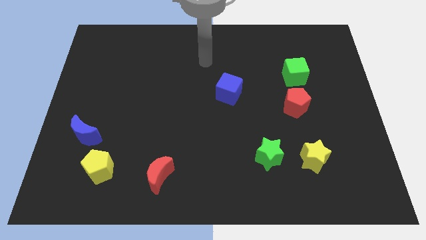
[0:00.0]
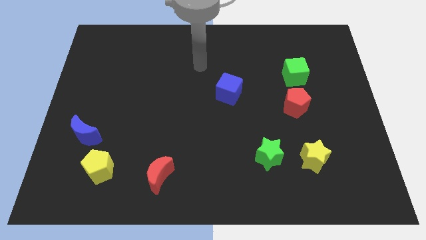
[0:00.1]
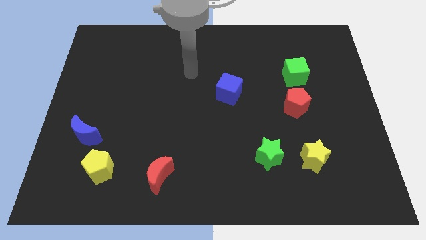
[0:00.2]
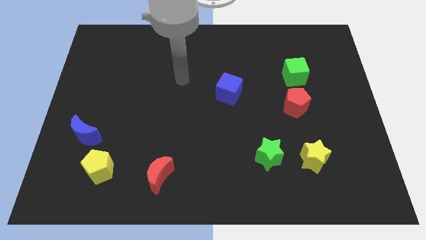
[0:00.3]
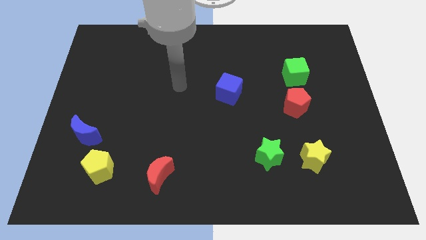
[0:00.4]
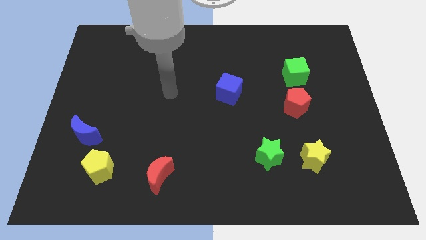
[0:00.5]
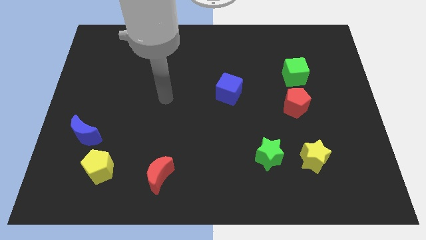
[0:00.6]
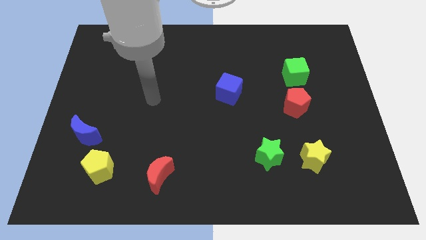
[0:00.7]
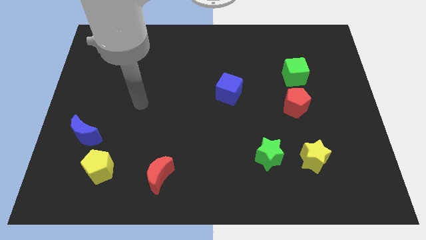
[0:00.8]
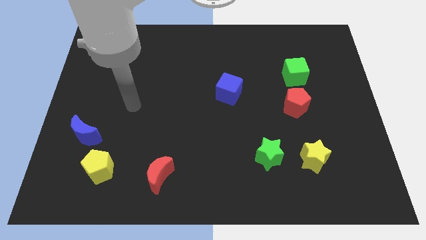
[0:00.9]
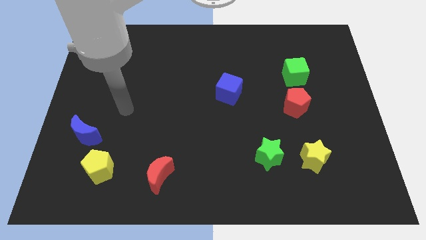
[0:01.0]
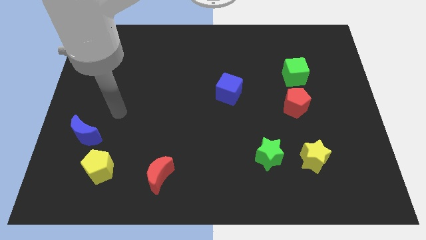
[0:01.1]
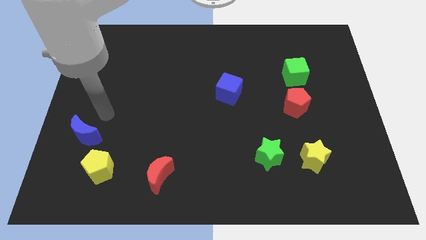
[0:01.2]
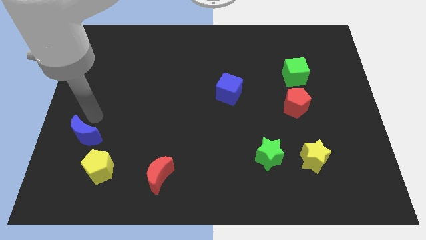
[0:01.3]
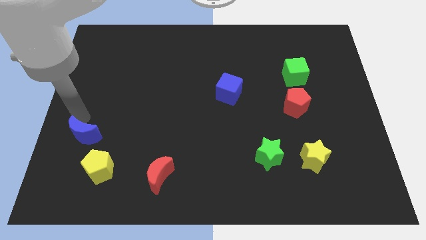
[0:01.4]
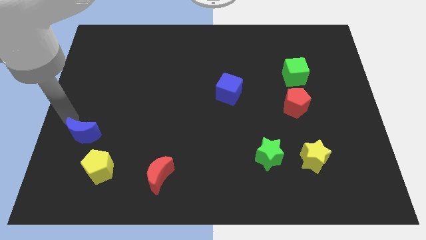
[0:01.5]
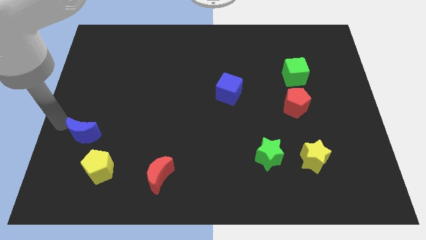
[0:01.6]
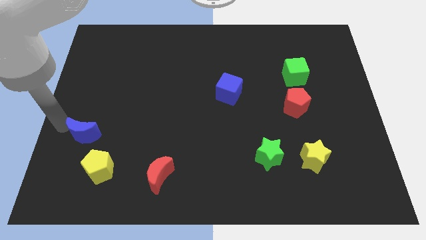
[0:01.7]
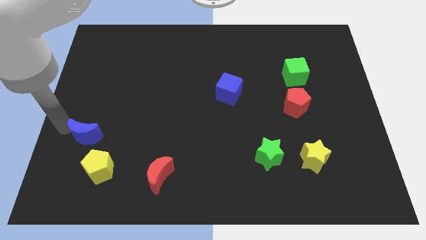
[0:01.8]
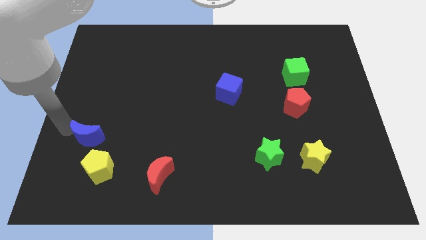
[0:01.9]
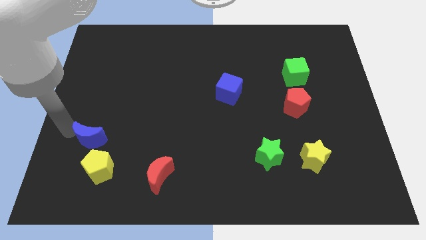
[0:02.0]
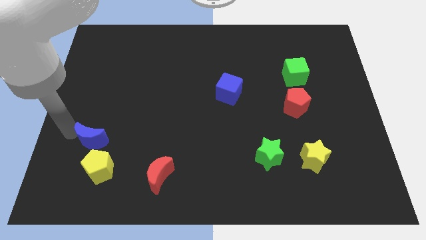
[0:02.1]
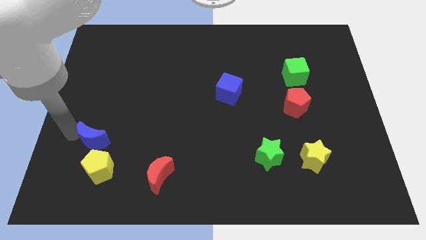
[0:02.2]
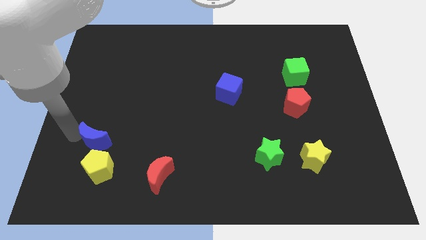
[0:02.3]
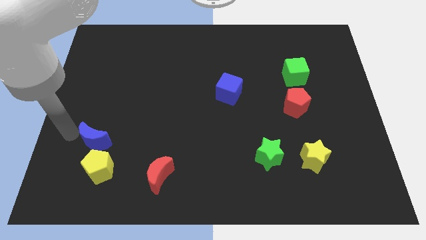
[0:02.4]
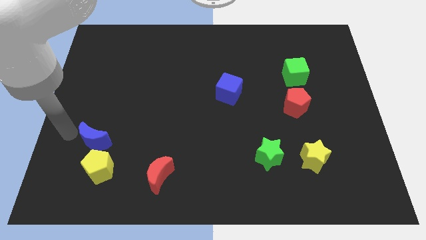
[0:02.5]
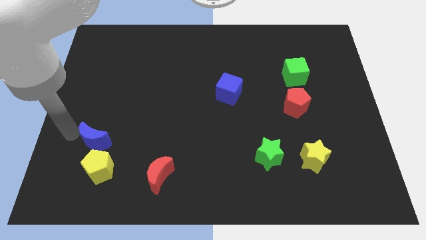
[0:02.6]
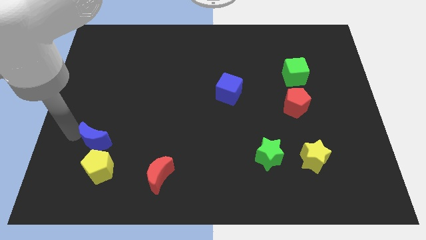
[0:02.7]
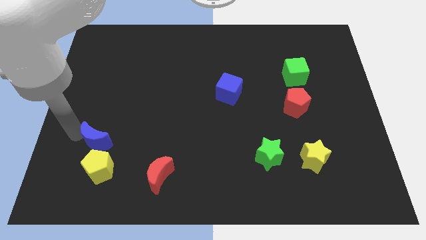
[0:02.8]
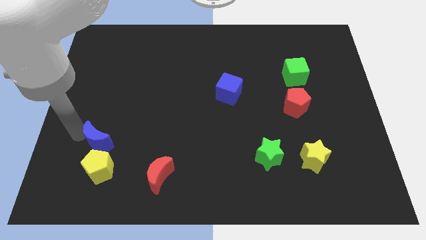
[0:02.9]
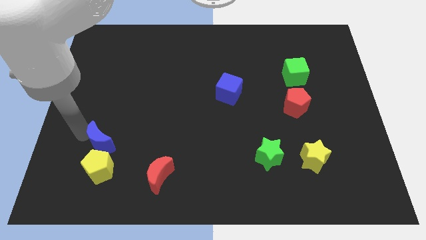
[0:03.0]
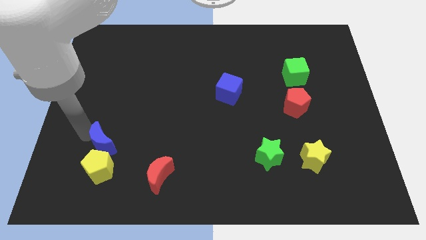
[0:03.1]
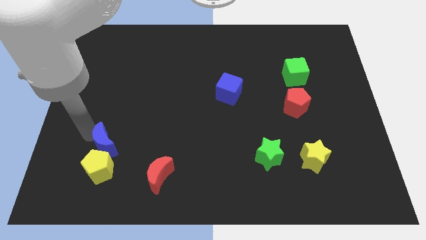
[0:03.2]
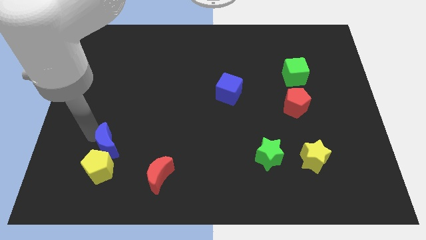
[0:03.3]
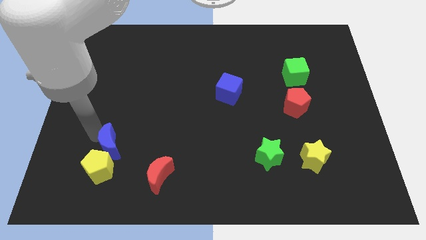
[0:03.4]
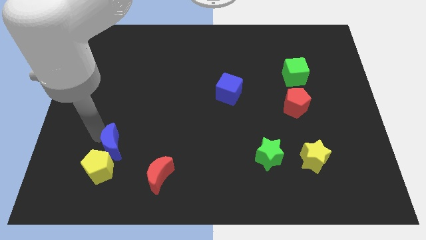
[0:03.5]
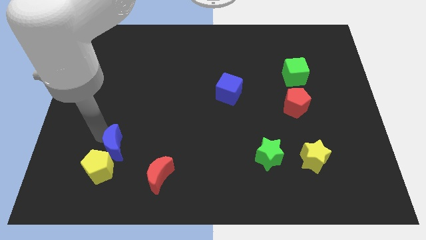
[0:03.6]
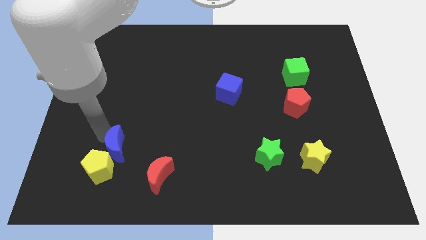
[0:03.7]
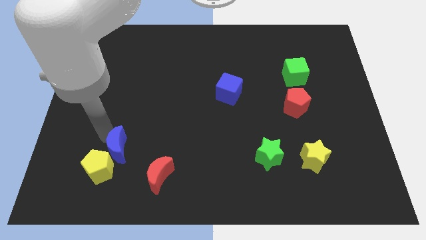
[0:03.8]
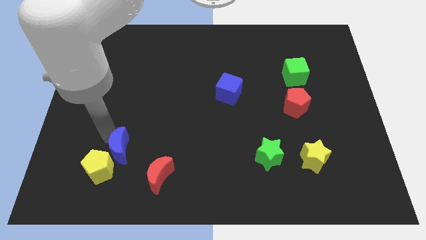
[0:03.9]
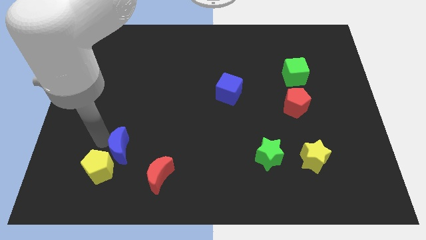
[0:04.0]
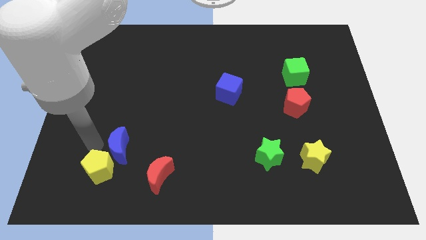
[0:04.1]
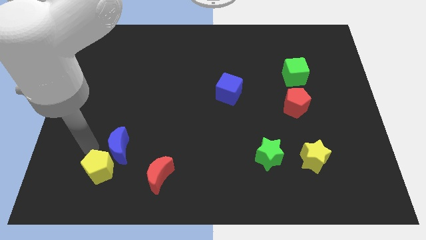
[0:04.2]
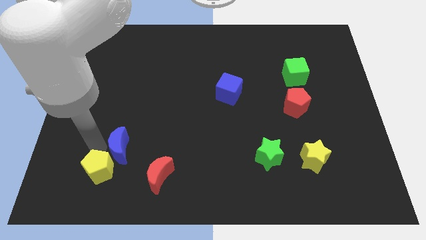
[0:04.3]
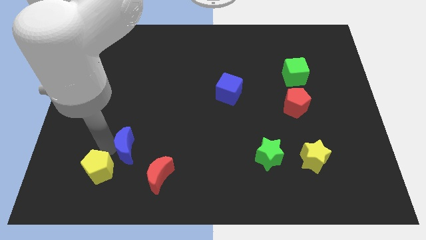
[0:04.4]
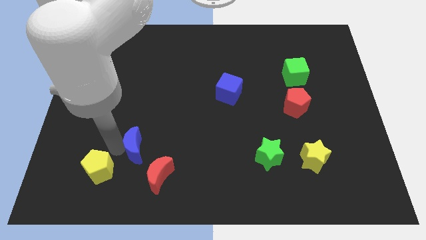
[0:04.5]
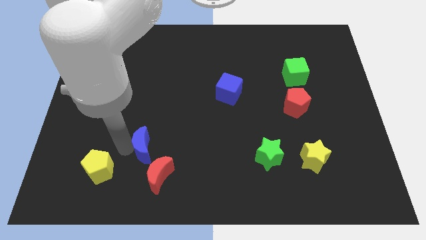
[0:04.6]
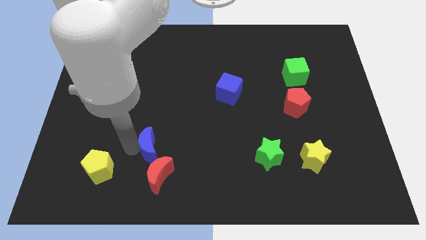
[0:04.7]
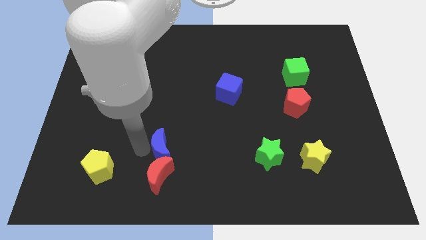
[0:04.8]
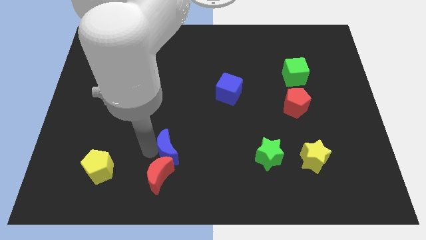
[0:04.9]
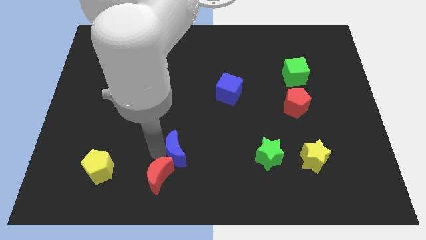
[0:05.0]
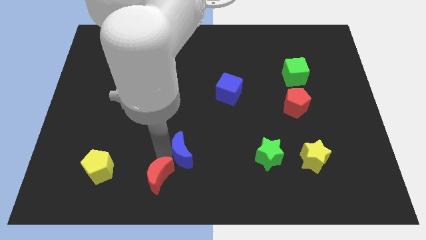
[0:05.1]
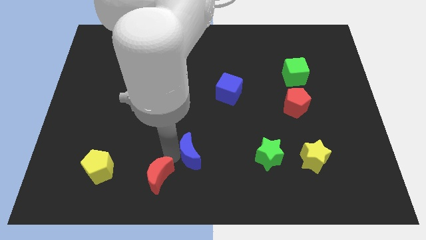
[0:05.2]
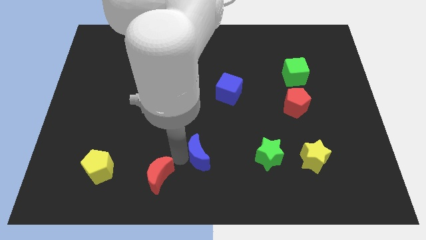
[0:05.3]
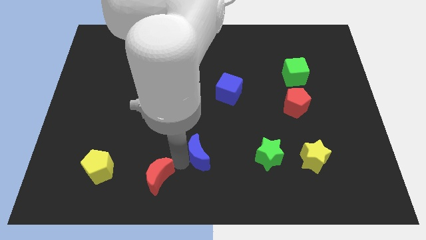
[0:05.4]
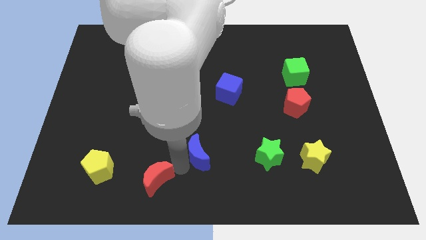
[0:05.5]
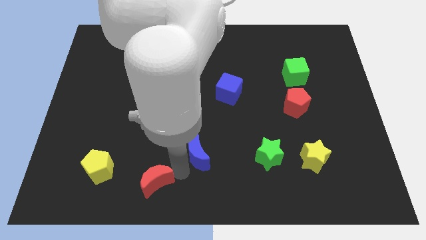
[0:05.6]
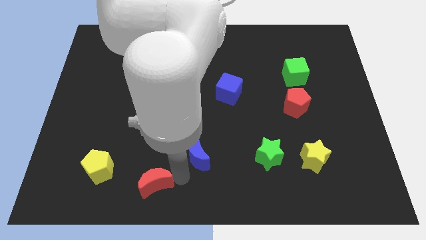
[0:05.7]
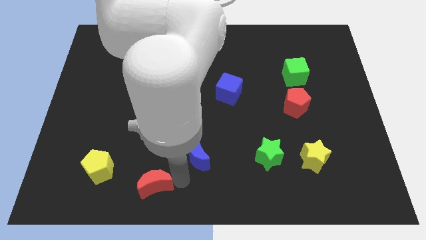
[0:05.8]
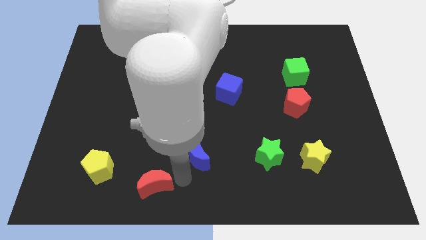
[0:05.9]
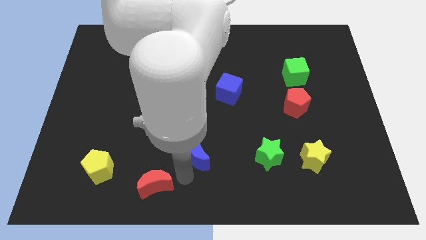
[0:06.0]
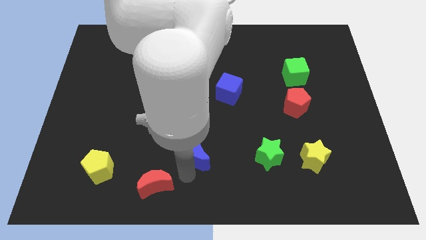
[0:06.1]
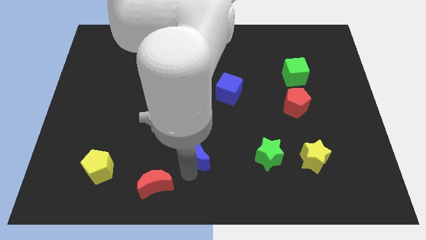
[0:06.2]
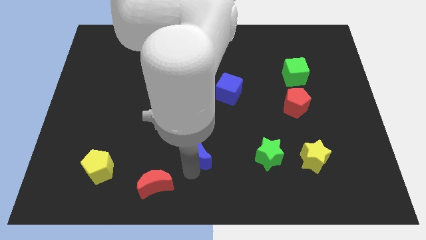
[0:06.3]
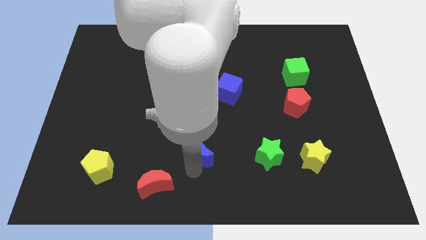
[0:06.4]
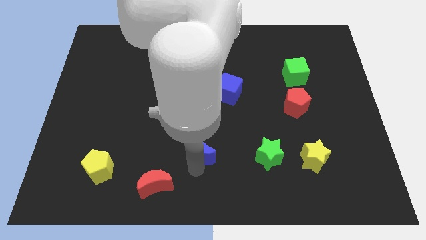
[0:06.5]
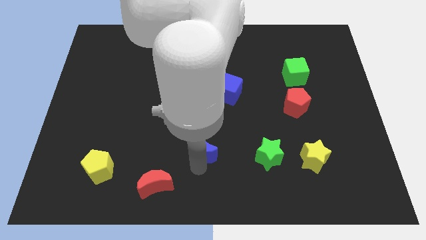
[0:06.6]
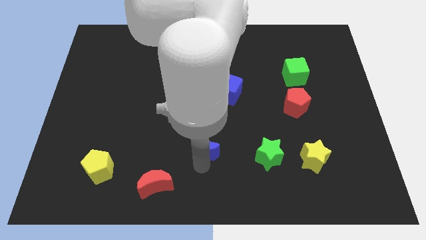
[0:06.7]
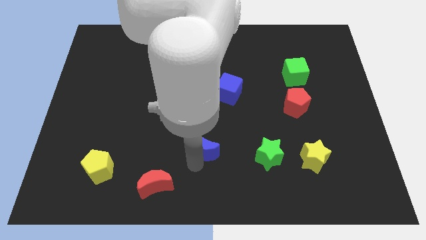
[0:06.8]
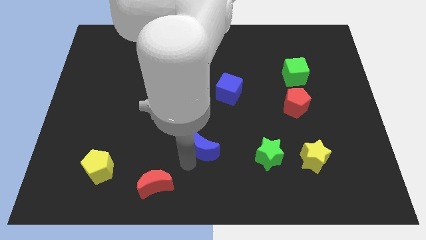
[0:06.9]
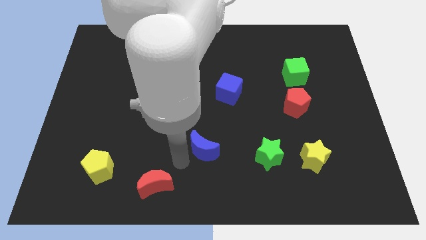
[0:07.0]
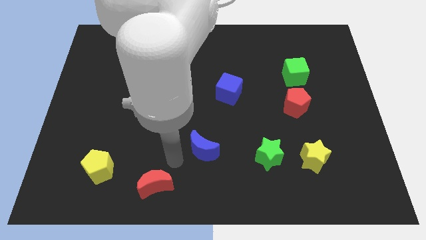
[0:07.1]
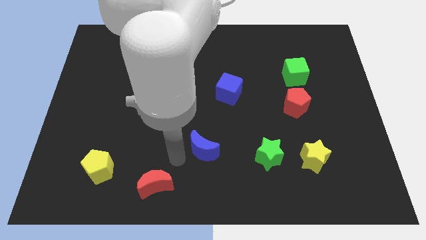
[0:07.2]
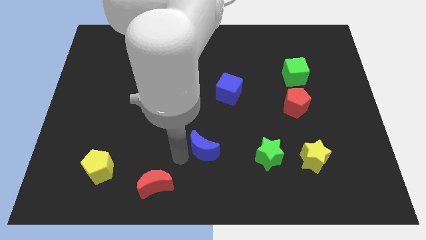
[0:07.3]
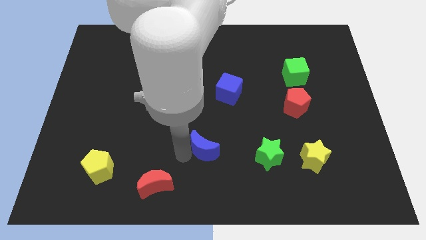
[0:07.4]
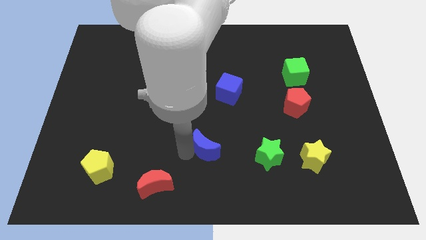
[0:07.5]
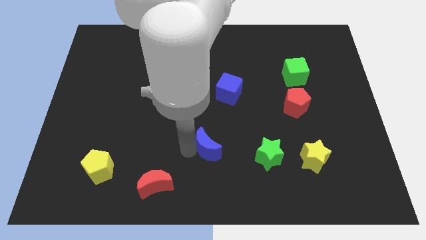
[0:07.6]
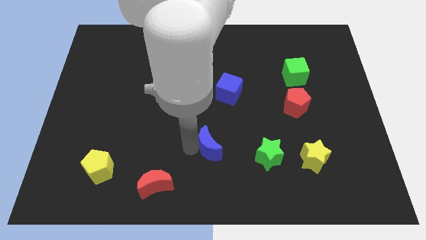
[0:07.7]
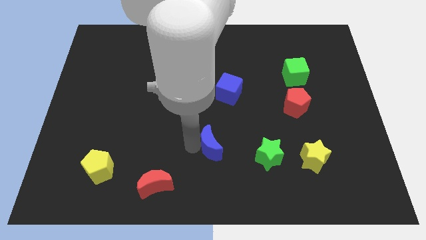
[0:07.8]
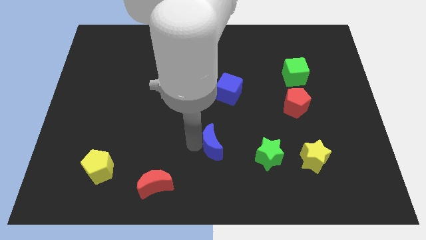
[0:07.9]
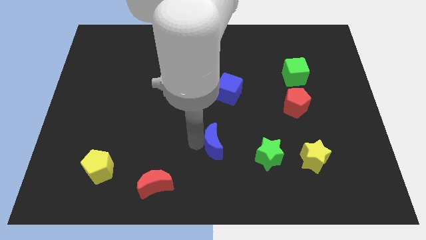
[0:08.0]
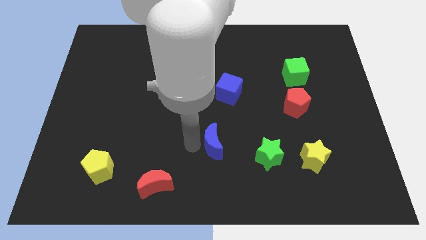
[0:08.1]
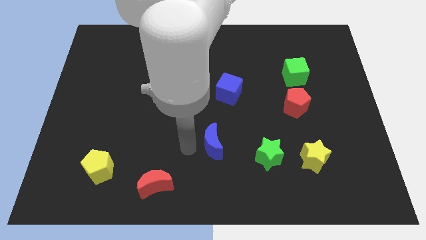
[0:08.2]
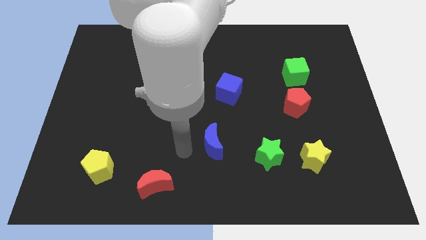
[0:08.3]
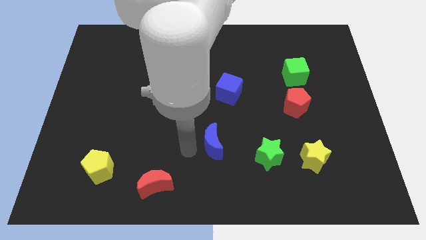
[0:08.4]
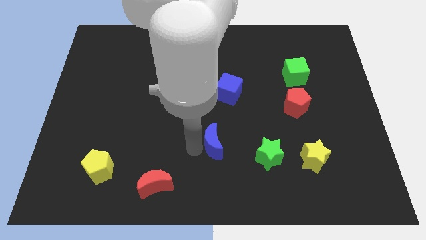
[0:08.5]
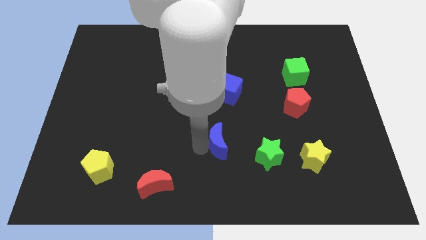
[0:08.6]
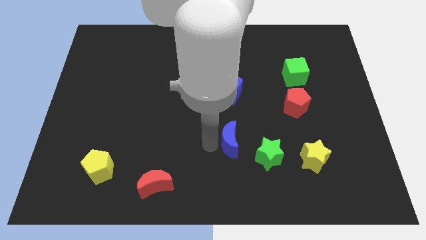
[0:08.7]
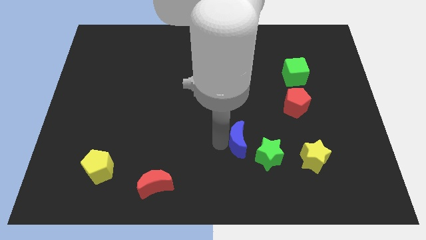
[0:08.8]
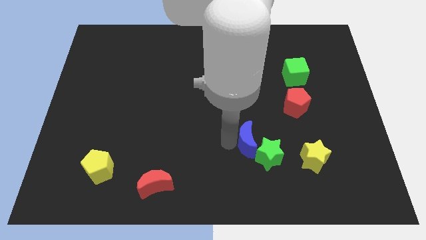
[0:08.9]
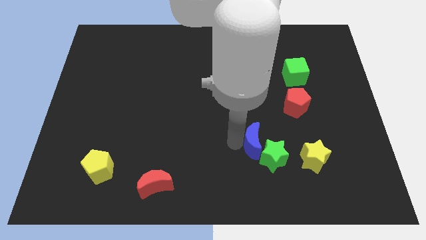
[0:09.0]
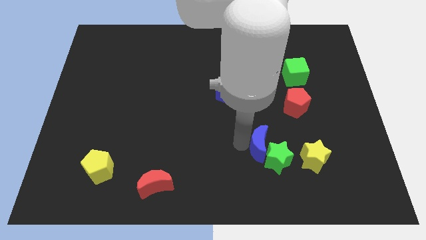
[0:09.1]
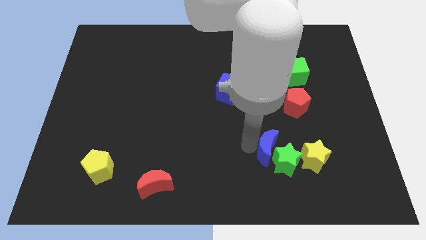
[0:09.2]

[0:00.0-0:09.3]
push the blue moon to the top left side of the yellow star
